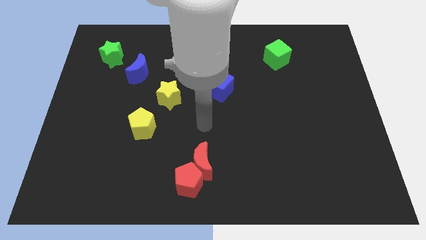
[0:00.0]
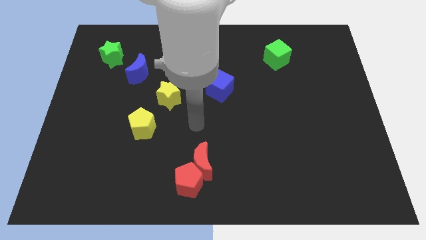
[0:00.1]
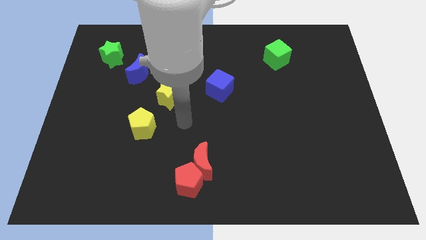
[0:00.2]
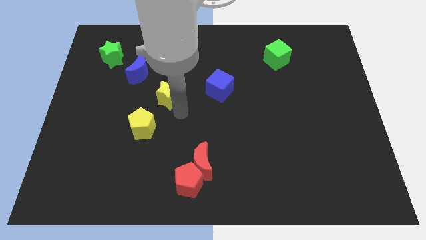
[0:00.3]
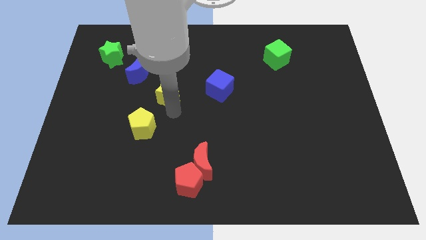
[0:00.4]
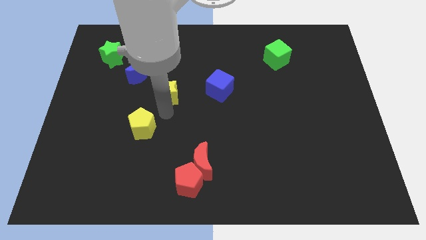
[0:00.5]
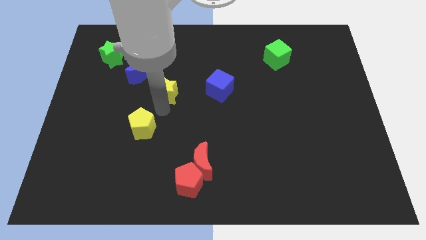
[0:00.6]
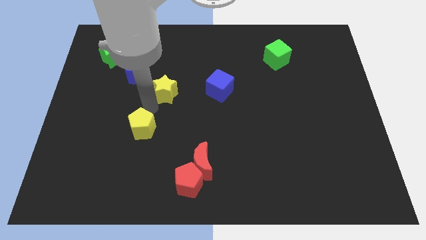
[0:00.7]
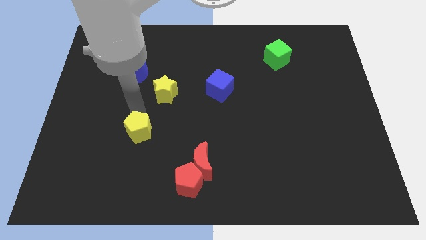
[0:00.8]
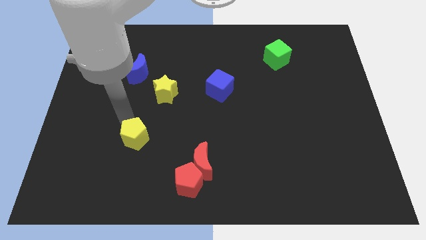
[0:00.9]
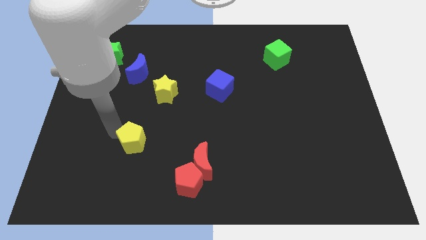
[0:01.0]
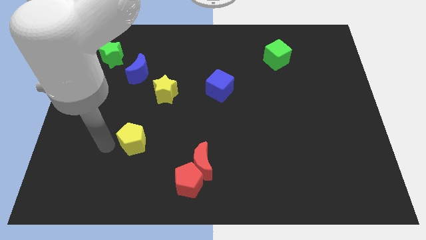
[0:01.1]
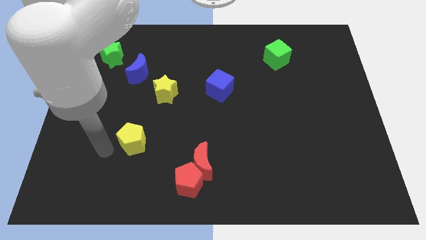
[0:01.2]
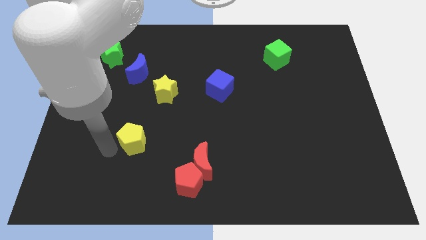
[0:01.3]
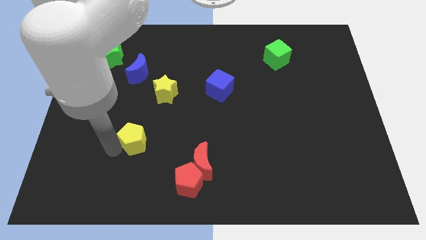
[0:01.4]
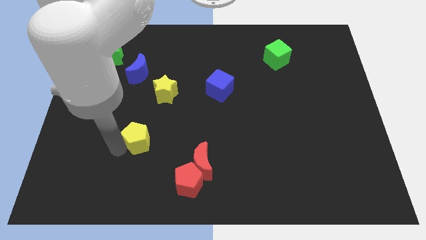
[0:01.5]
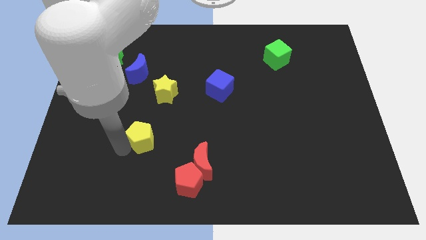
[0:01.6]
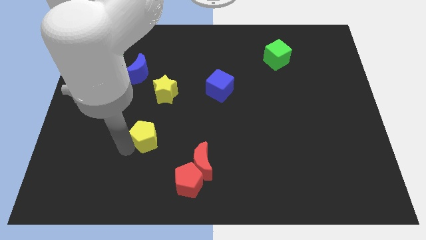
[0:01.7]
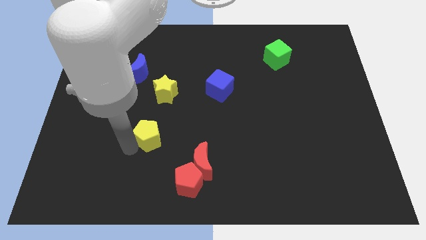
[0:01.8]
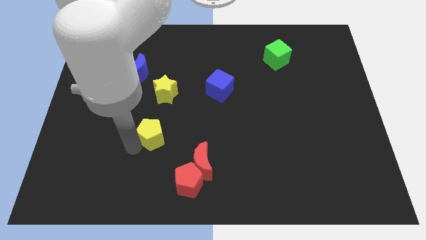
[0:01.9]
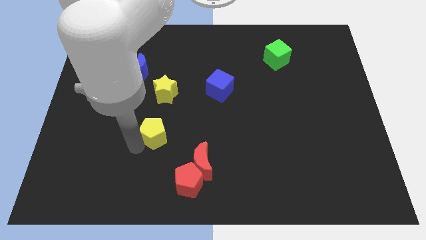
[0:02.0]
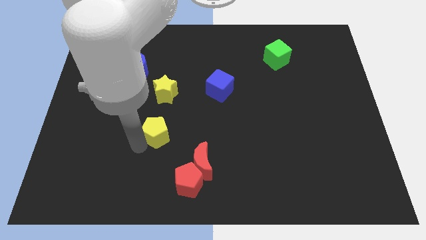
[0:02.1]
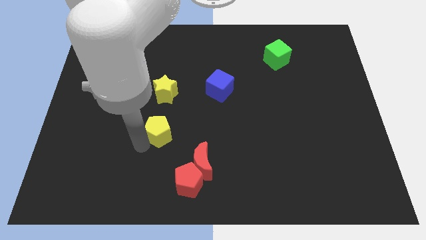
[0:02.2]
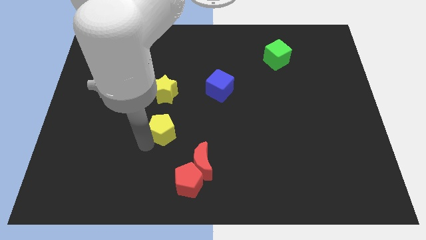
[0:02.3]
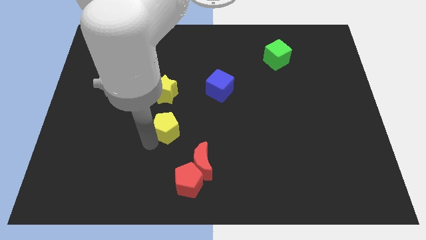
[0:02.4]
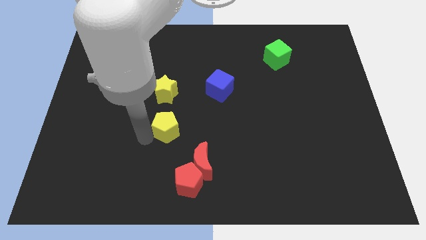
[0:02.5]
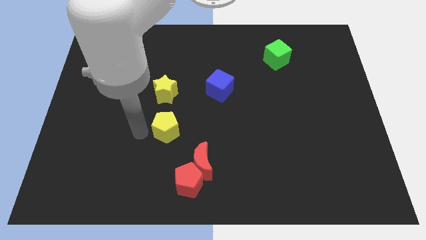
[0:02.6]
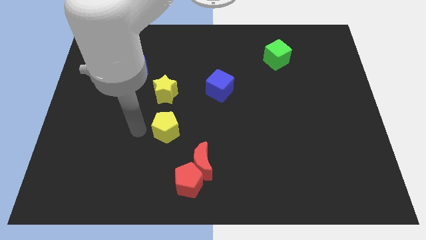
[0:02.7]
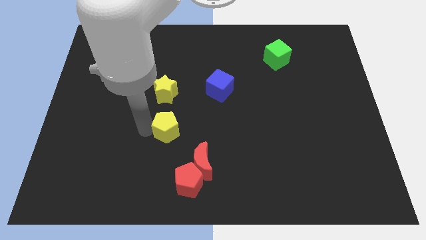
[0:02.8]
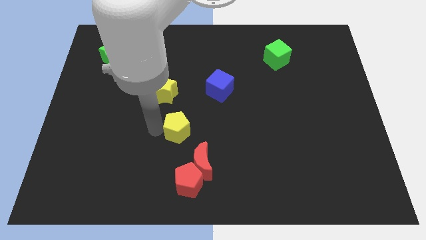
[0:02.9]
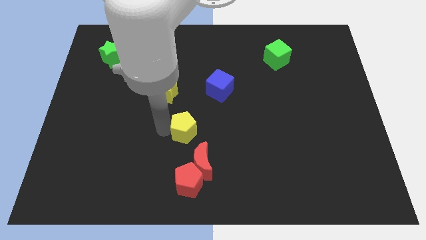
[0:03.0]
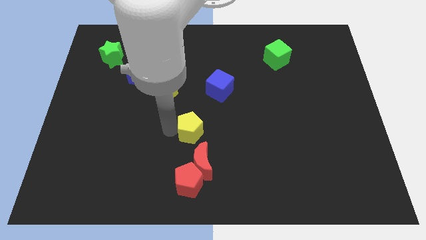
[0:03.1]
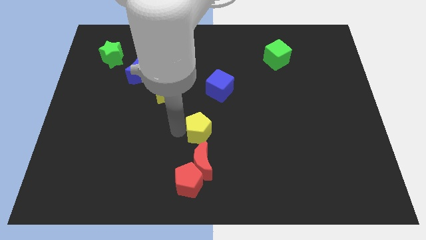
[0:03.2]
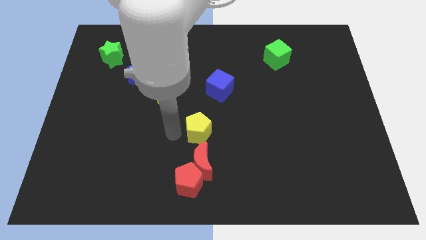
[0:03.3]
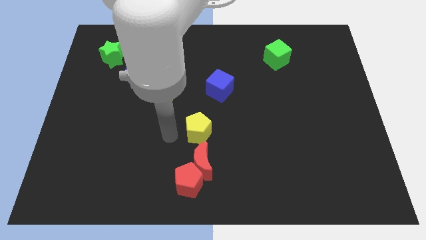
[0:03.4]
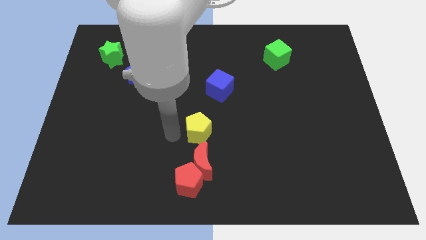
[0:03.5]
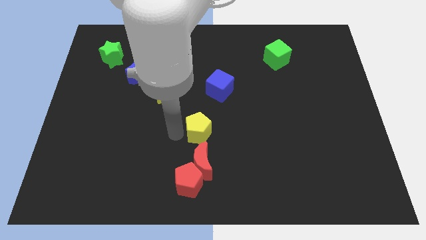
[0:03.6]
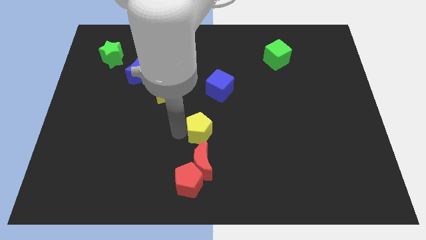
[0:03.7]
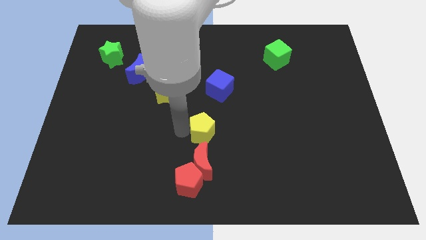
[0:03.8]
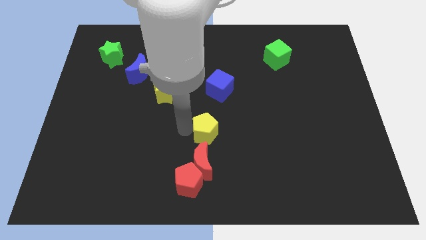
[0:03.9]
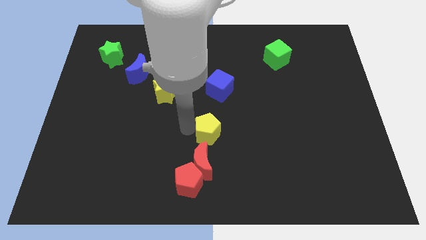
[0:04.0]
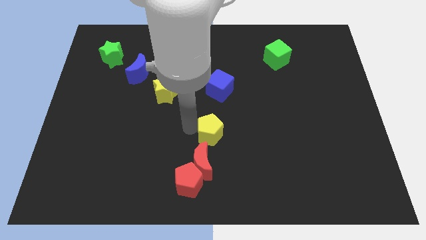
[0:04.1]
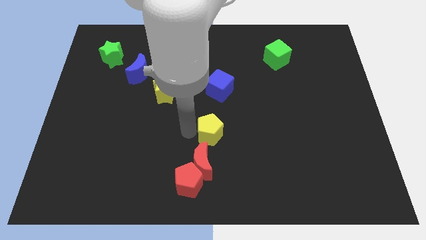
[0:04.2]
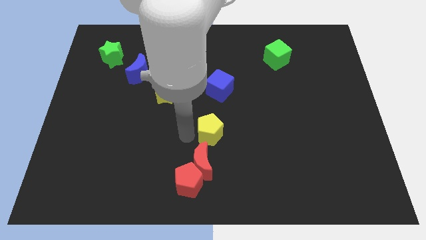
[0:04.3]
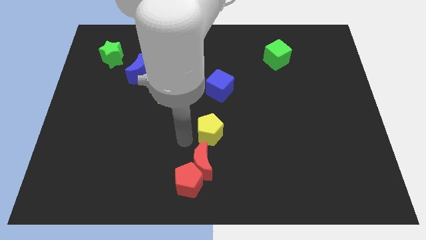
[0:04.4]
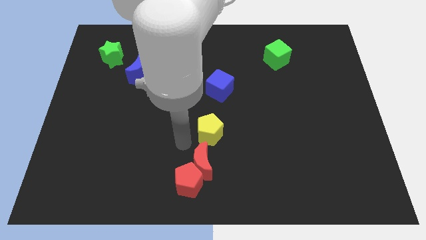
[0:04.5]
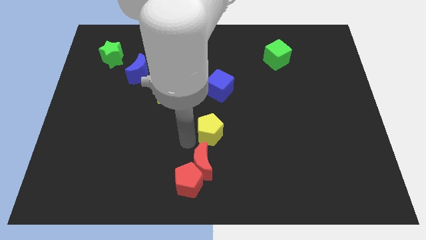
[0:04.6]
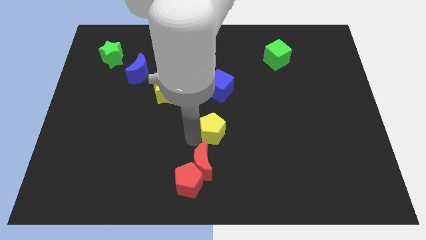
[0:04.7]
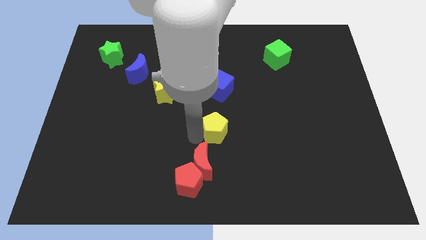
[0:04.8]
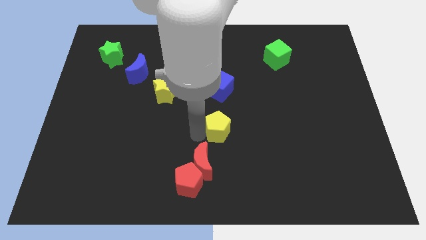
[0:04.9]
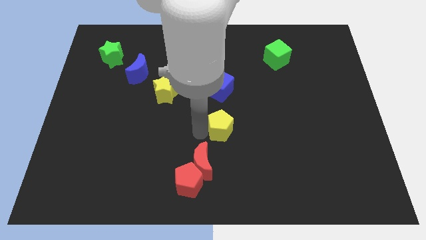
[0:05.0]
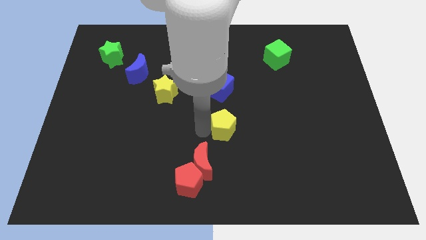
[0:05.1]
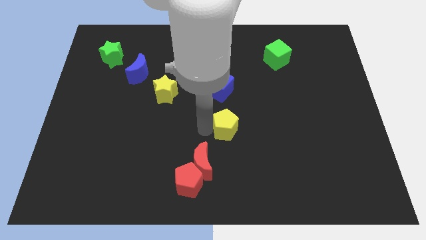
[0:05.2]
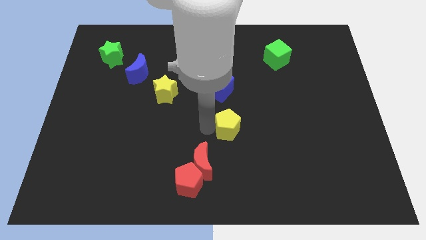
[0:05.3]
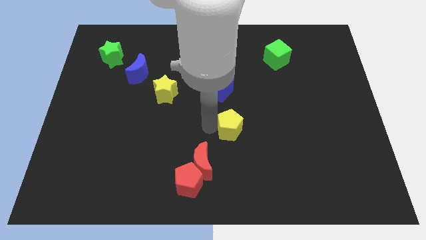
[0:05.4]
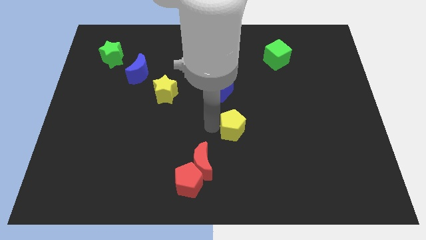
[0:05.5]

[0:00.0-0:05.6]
push the yellow pentagon to the right

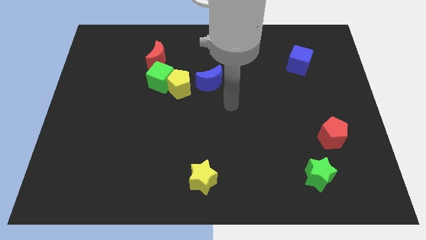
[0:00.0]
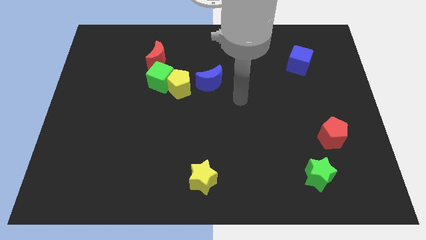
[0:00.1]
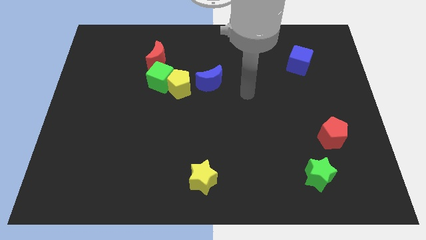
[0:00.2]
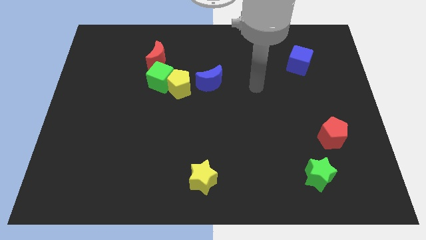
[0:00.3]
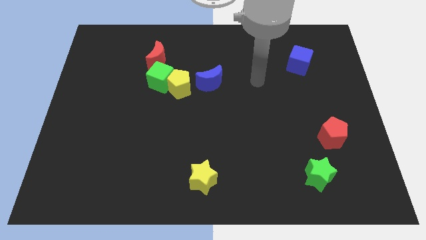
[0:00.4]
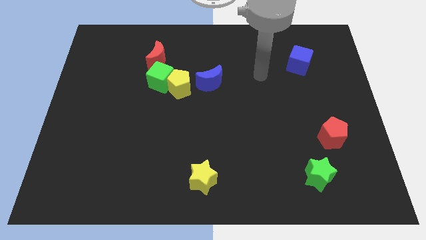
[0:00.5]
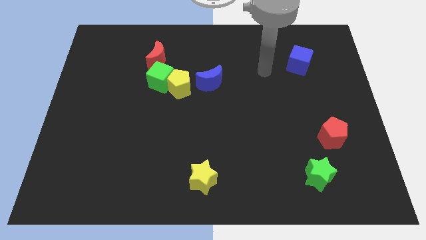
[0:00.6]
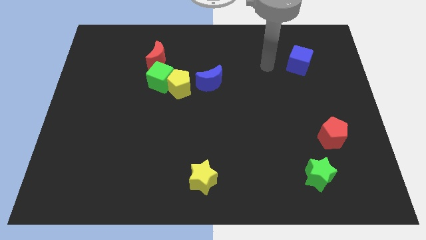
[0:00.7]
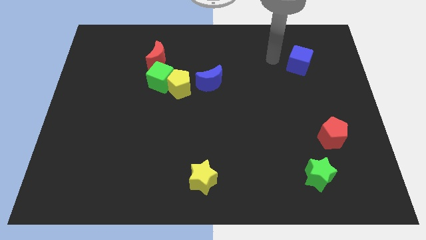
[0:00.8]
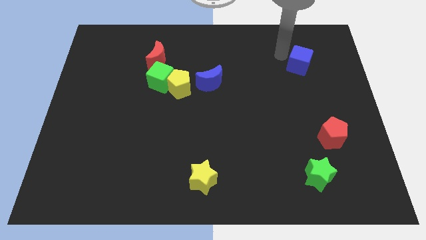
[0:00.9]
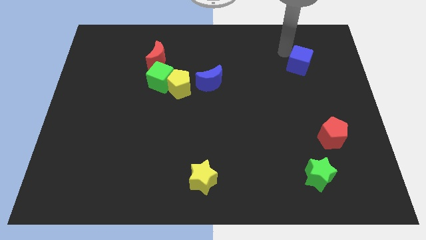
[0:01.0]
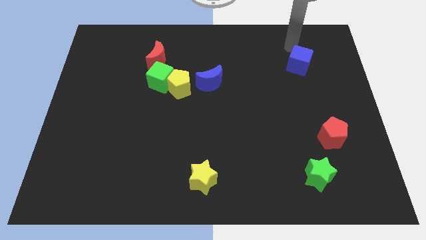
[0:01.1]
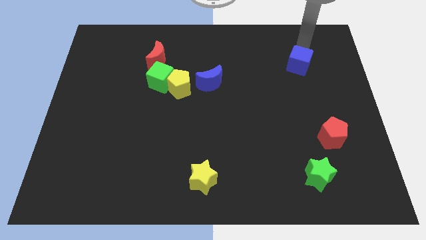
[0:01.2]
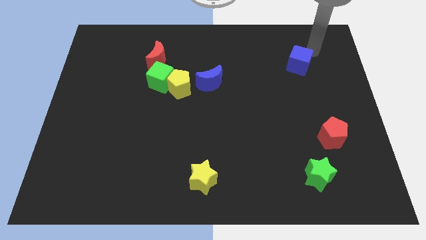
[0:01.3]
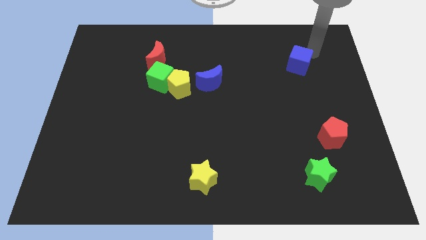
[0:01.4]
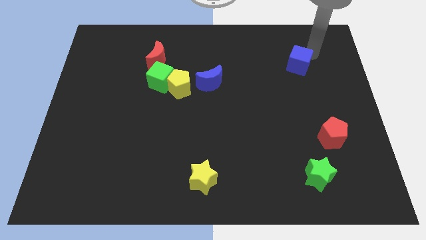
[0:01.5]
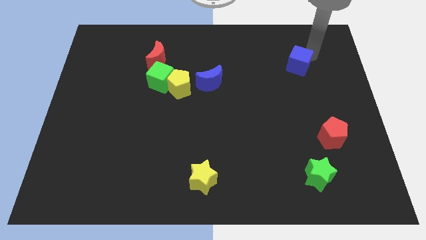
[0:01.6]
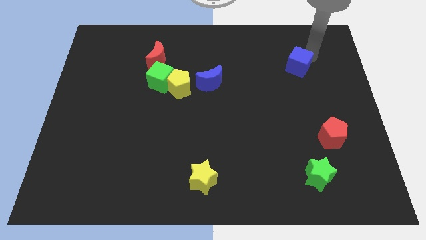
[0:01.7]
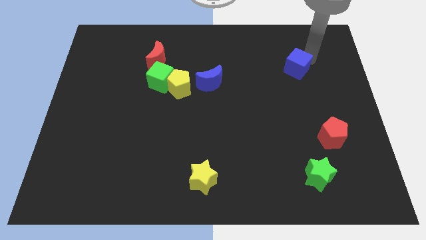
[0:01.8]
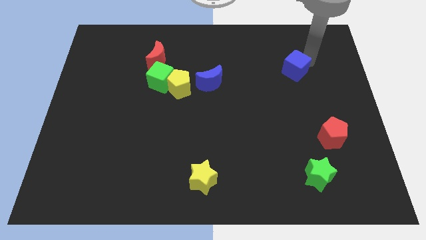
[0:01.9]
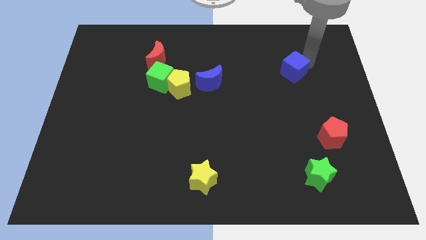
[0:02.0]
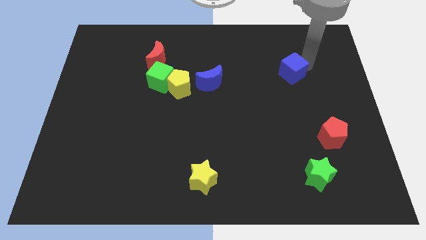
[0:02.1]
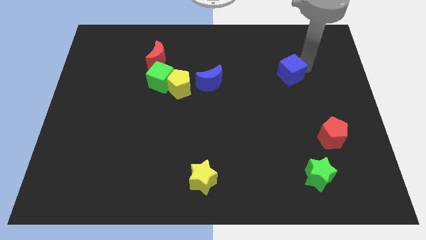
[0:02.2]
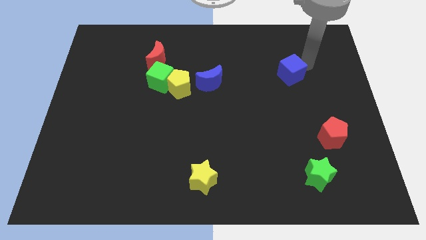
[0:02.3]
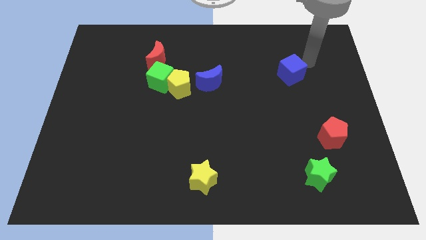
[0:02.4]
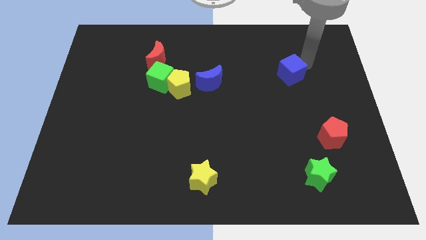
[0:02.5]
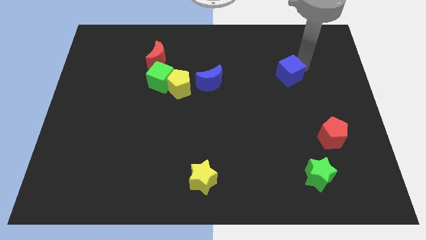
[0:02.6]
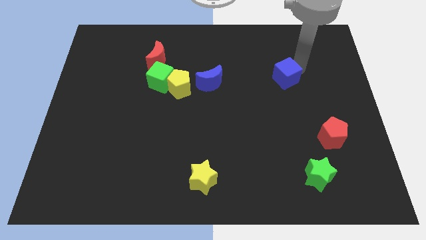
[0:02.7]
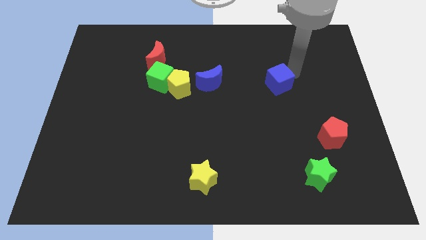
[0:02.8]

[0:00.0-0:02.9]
move the blue cube slightly diagonally downwards and to the left
